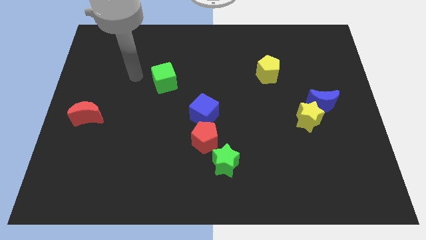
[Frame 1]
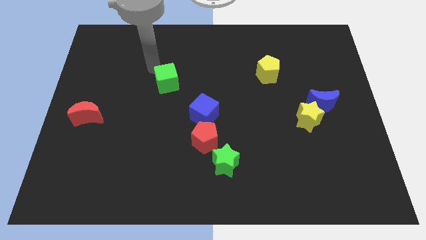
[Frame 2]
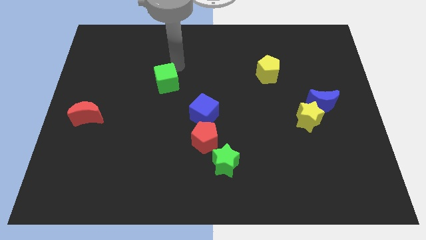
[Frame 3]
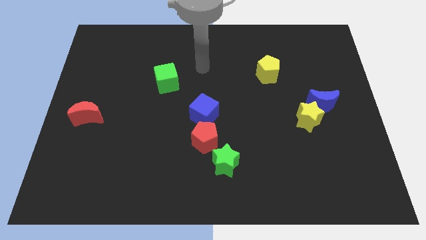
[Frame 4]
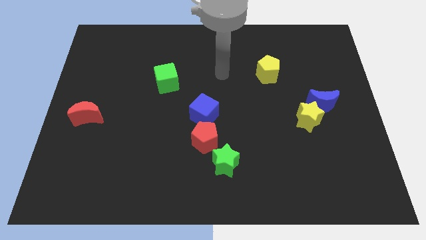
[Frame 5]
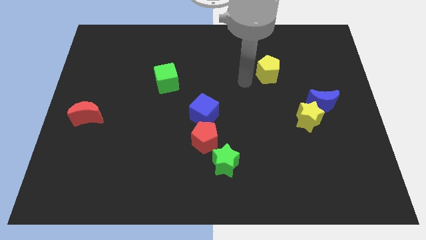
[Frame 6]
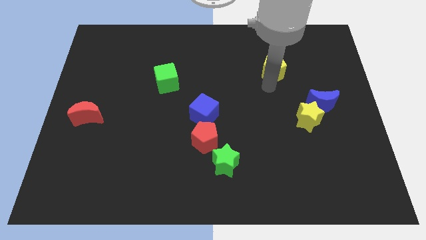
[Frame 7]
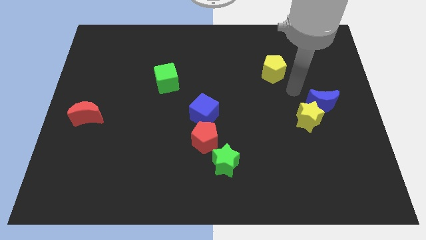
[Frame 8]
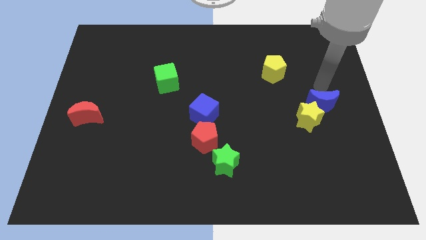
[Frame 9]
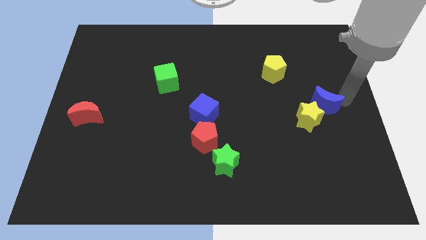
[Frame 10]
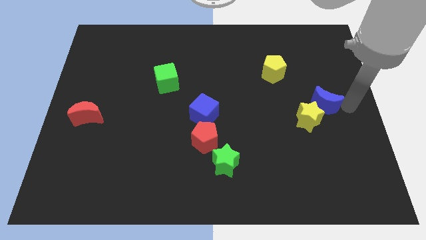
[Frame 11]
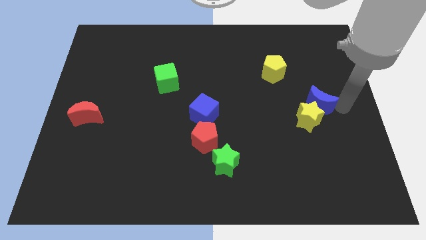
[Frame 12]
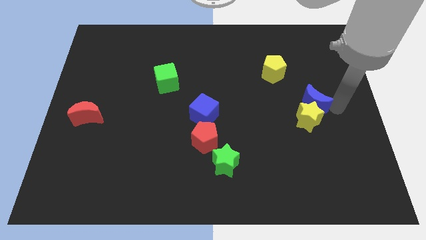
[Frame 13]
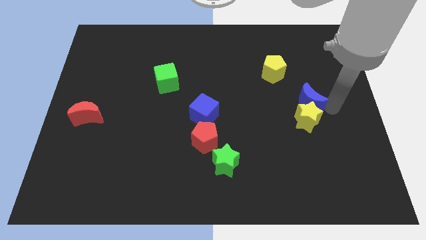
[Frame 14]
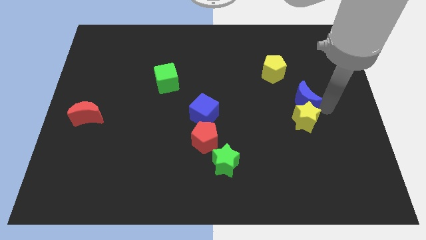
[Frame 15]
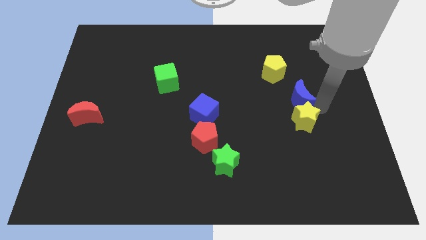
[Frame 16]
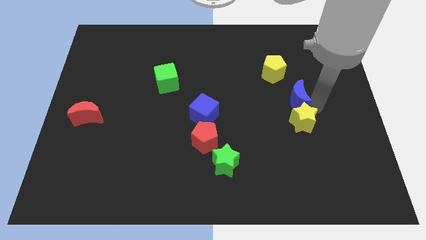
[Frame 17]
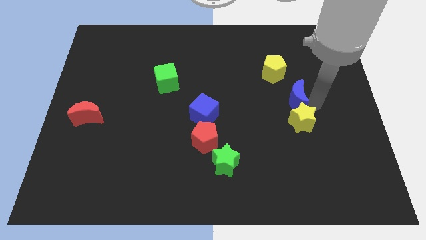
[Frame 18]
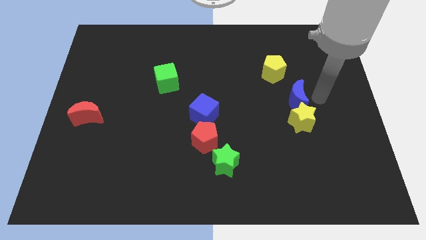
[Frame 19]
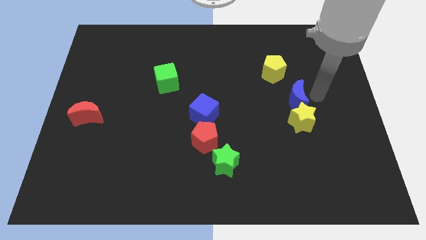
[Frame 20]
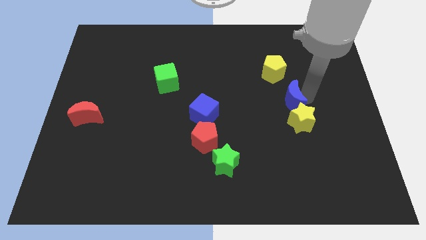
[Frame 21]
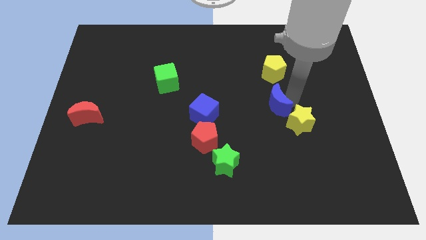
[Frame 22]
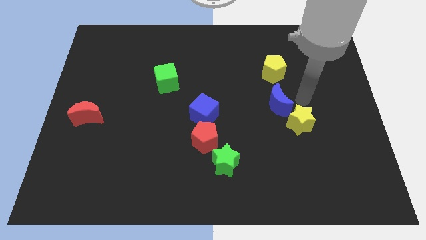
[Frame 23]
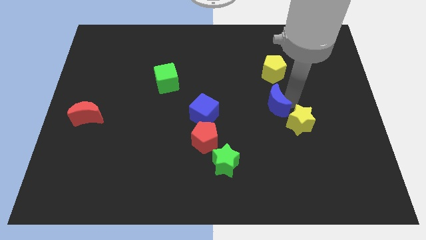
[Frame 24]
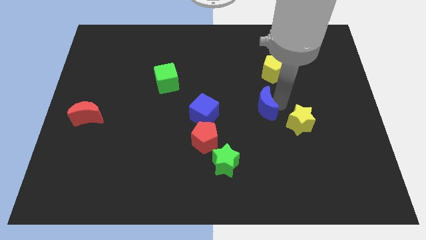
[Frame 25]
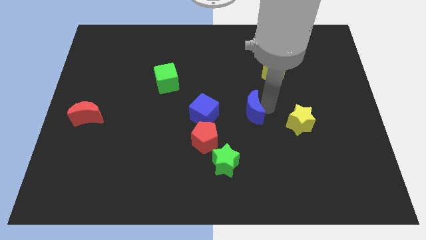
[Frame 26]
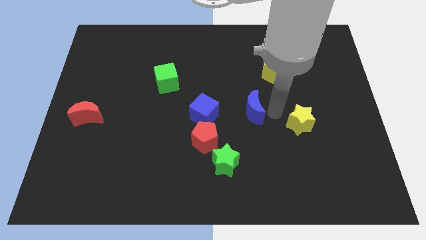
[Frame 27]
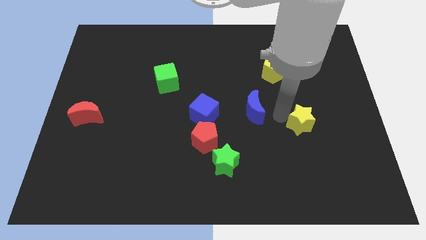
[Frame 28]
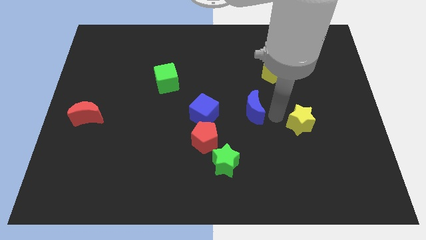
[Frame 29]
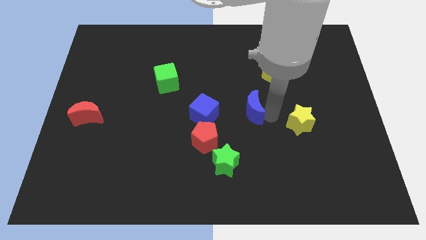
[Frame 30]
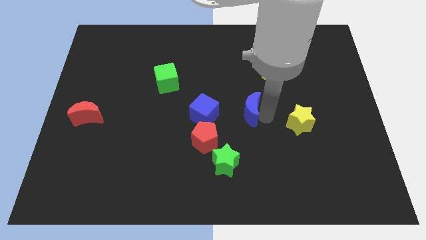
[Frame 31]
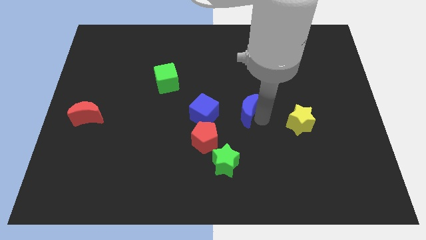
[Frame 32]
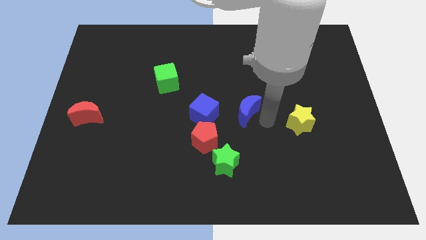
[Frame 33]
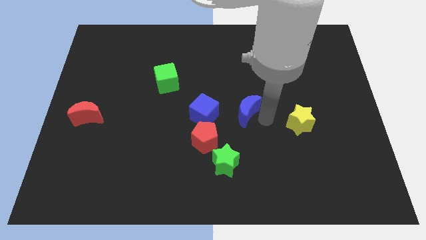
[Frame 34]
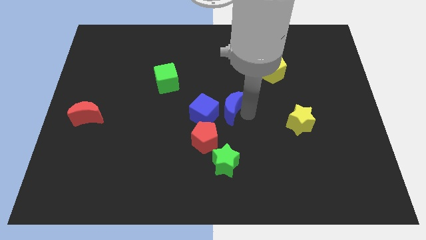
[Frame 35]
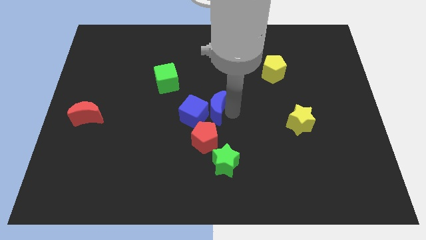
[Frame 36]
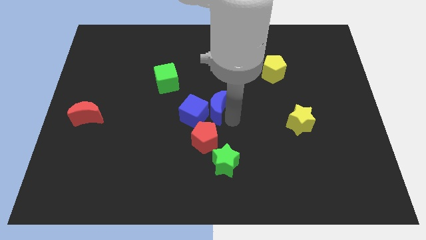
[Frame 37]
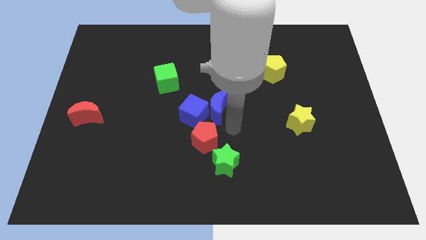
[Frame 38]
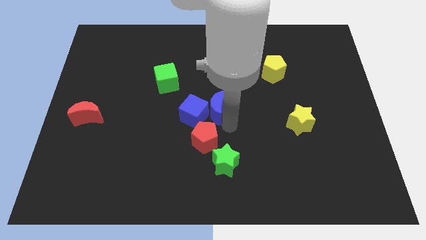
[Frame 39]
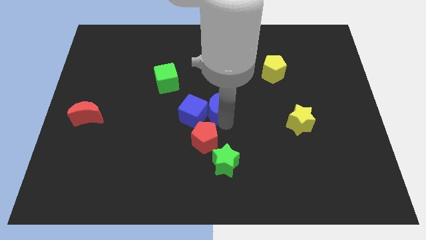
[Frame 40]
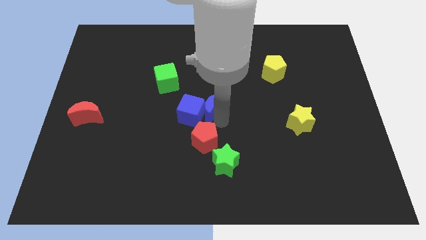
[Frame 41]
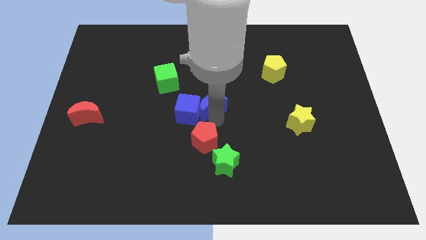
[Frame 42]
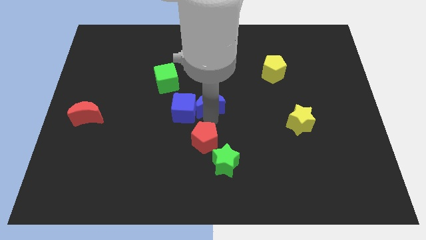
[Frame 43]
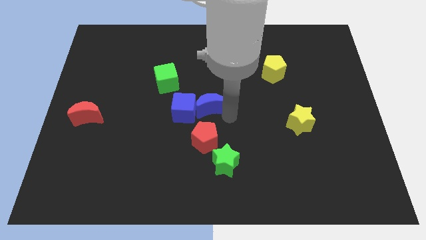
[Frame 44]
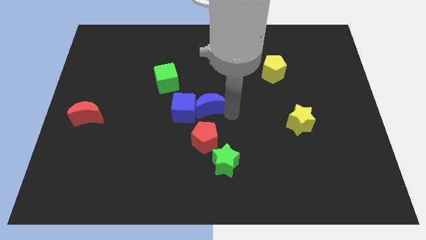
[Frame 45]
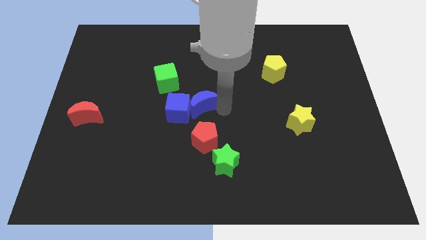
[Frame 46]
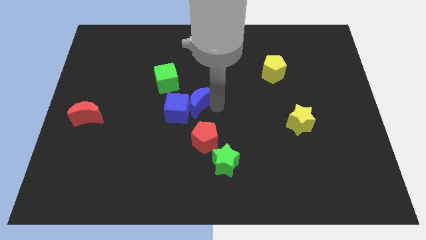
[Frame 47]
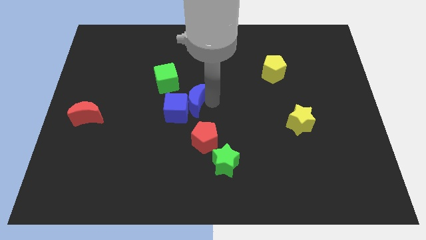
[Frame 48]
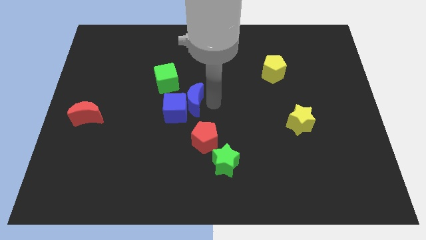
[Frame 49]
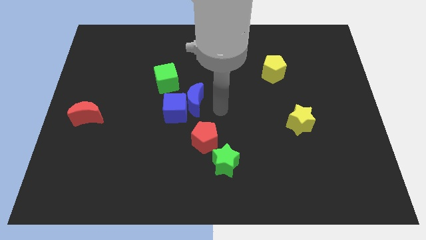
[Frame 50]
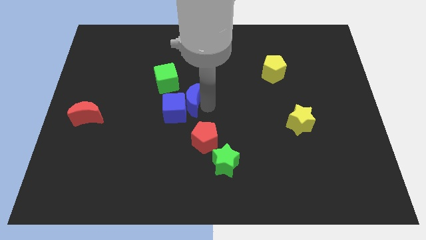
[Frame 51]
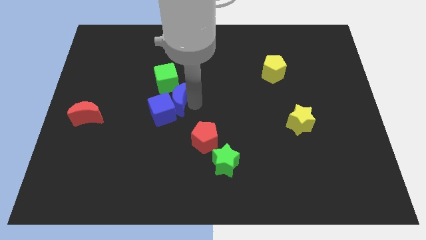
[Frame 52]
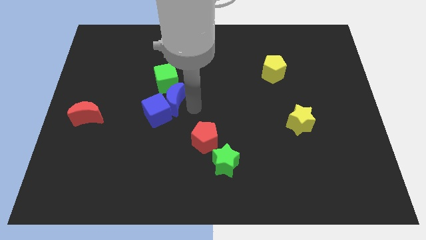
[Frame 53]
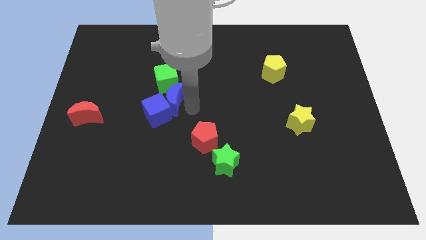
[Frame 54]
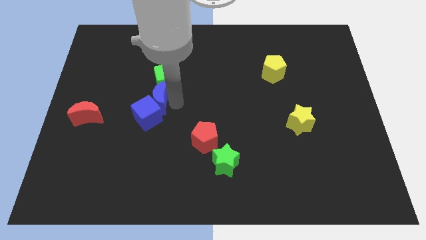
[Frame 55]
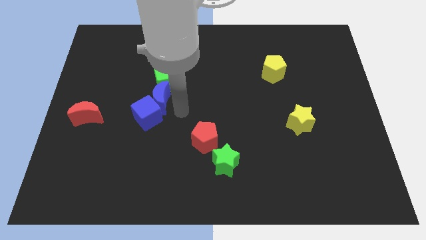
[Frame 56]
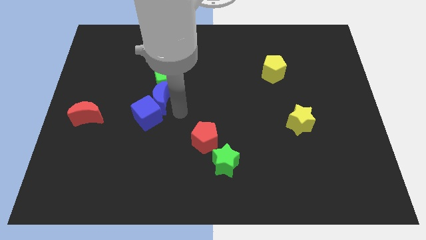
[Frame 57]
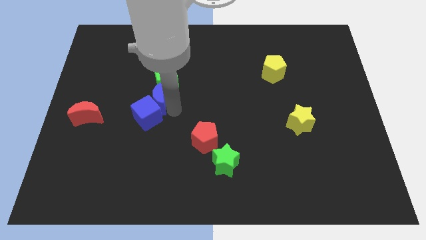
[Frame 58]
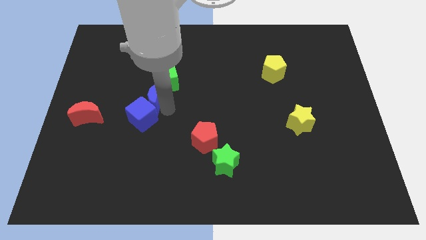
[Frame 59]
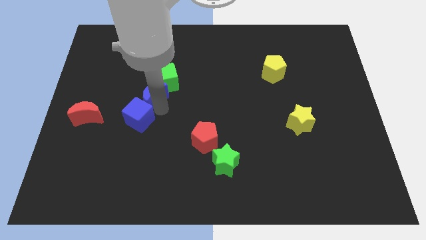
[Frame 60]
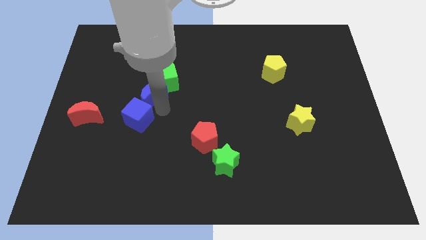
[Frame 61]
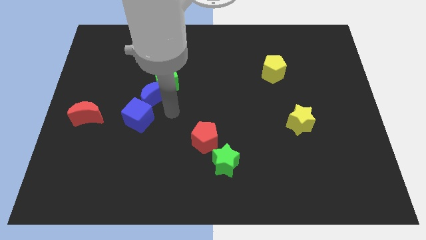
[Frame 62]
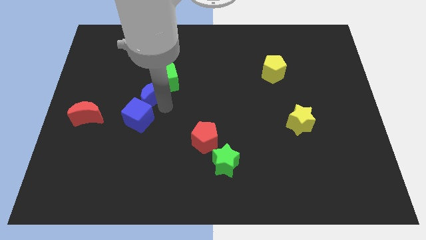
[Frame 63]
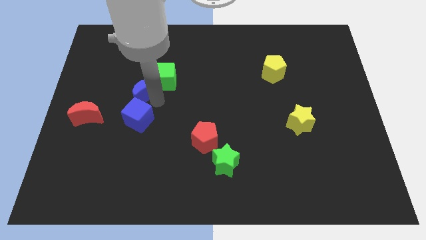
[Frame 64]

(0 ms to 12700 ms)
put the blue moon to the left of the green cube

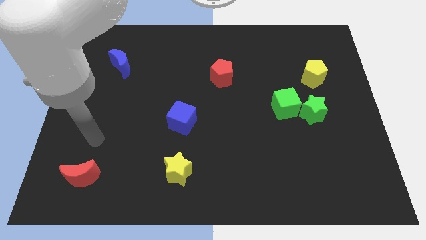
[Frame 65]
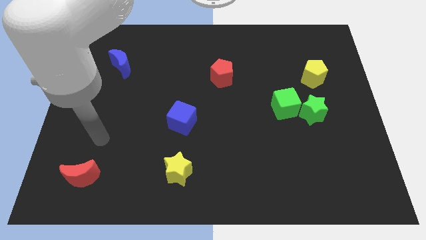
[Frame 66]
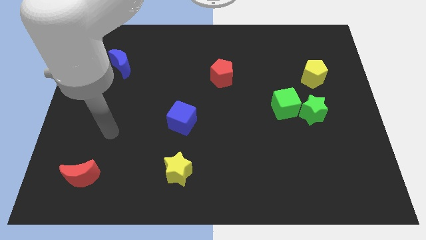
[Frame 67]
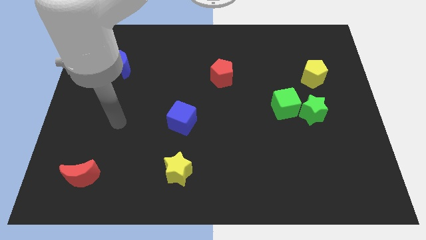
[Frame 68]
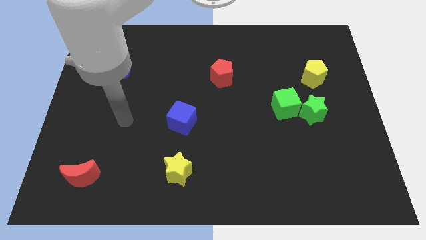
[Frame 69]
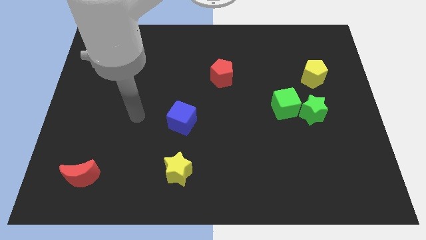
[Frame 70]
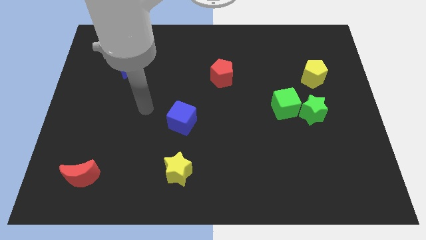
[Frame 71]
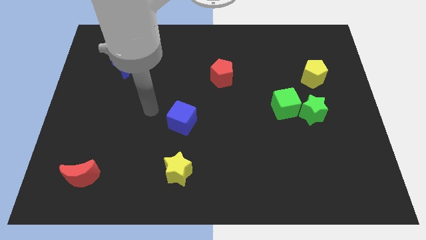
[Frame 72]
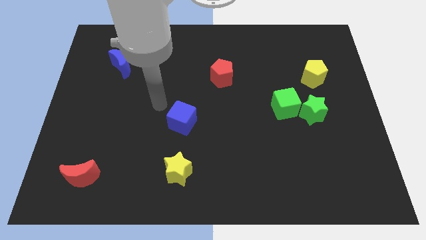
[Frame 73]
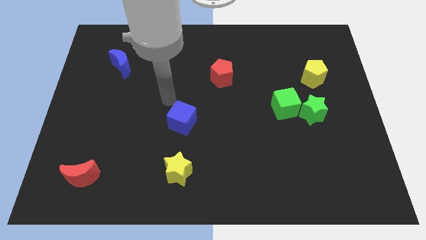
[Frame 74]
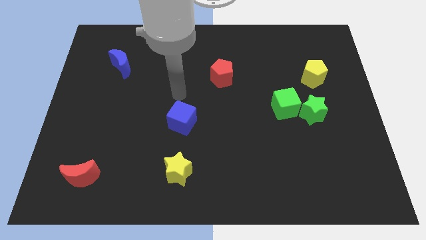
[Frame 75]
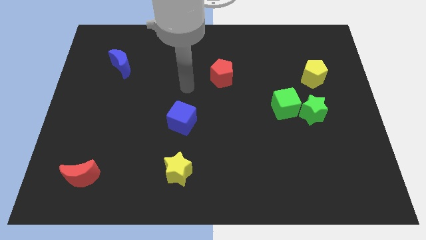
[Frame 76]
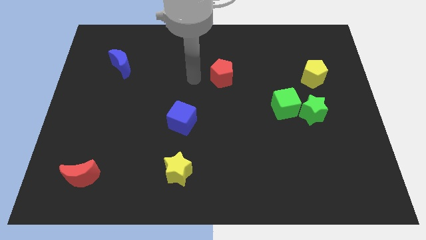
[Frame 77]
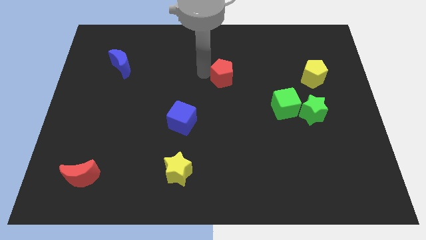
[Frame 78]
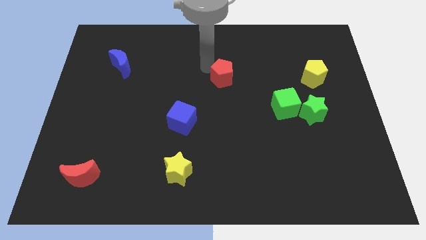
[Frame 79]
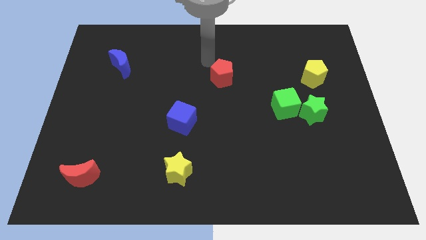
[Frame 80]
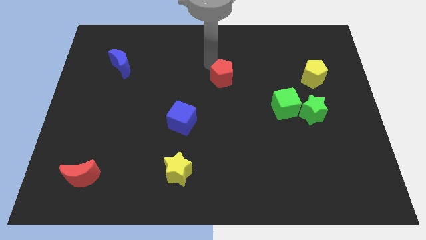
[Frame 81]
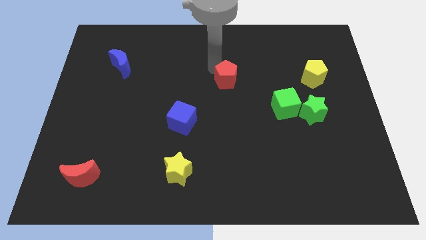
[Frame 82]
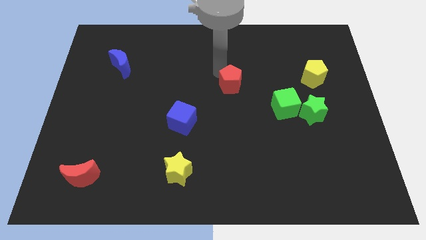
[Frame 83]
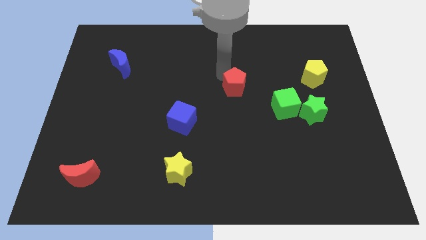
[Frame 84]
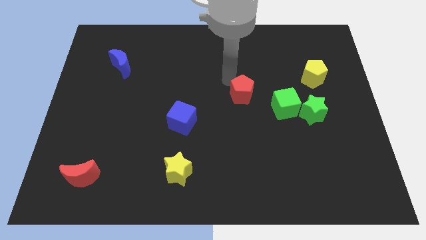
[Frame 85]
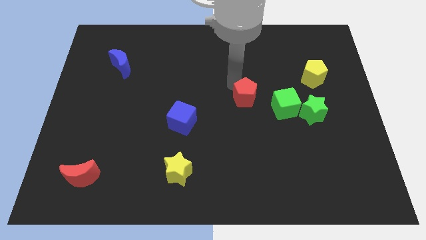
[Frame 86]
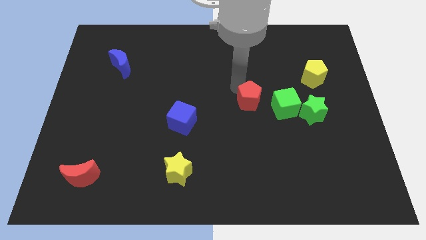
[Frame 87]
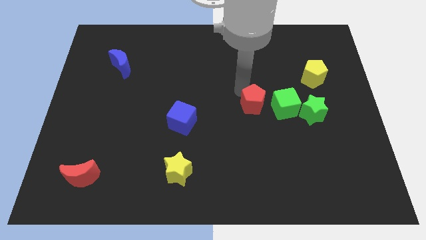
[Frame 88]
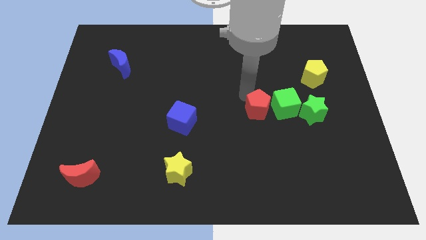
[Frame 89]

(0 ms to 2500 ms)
put the red pentagon to the bottom left of the green cube
